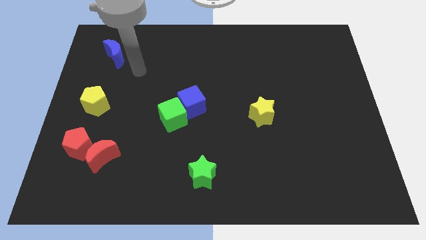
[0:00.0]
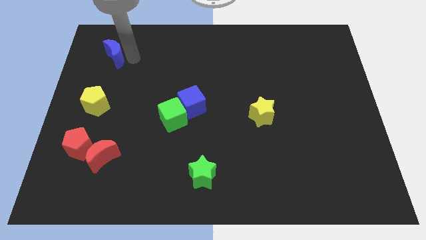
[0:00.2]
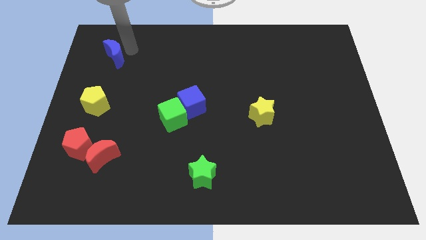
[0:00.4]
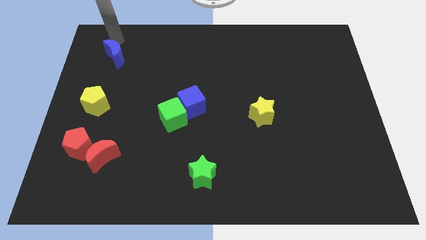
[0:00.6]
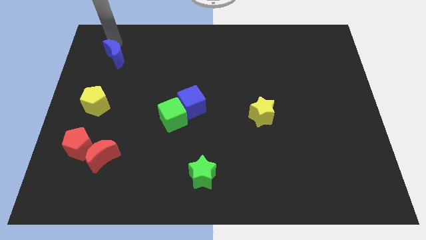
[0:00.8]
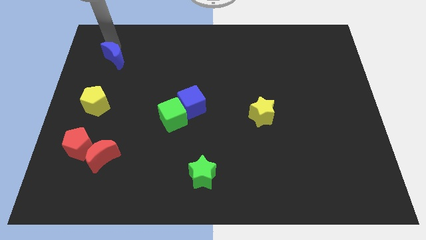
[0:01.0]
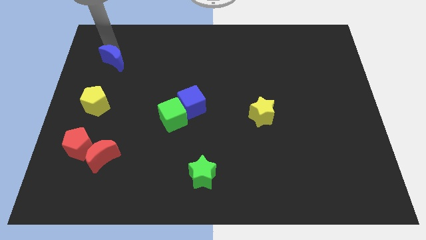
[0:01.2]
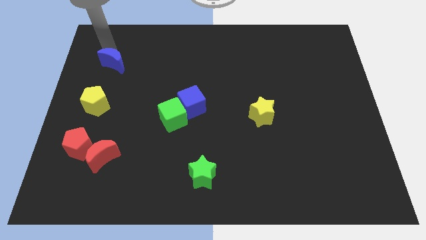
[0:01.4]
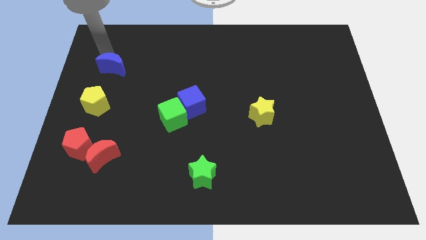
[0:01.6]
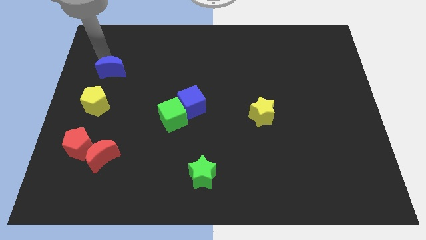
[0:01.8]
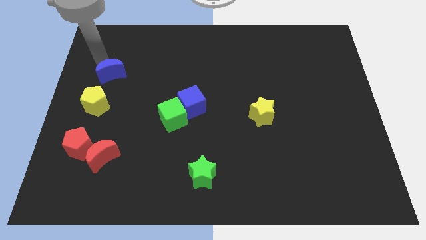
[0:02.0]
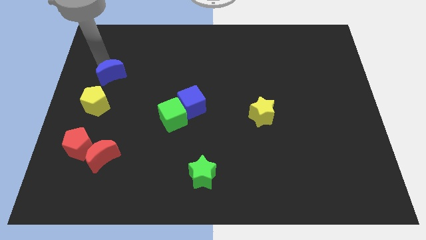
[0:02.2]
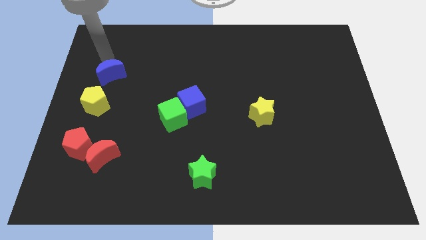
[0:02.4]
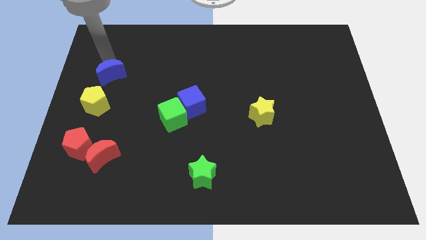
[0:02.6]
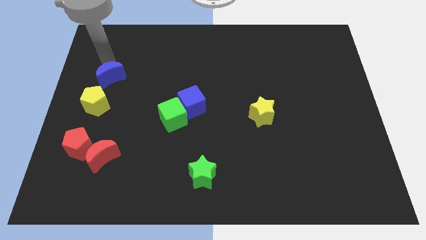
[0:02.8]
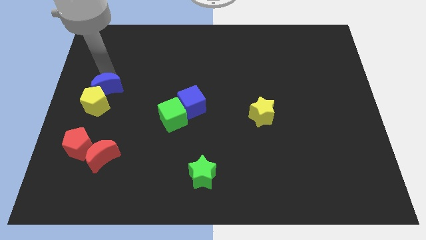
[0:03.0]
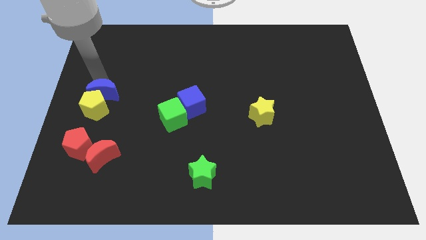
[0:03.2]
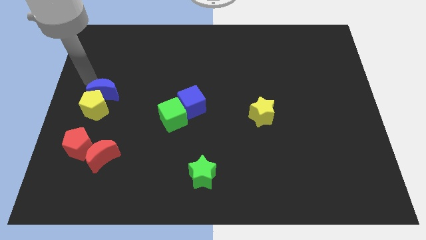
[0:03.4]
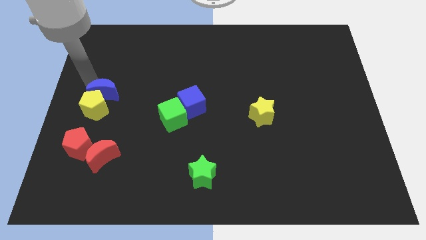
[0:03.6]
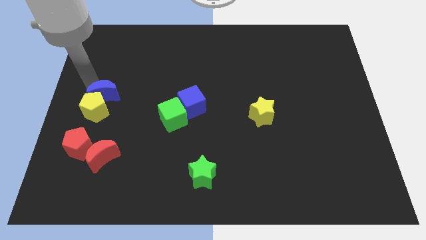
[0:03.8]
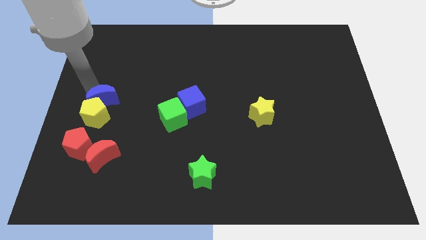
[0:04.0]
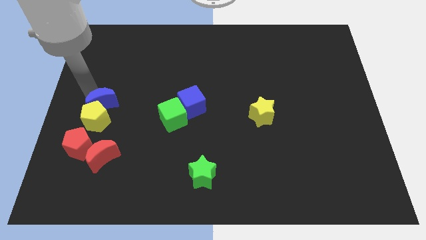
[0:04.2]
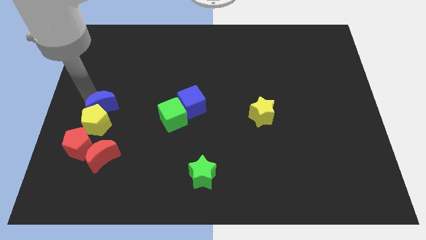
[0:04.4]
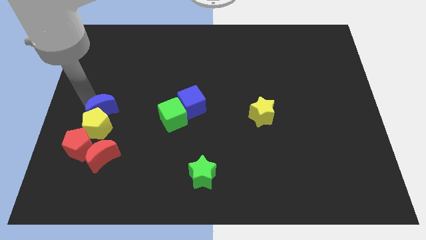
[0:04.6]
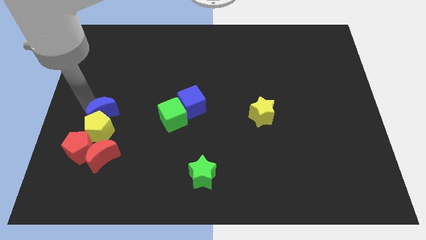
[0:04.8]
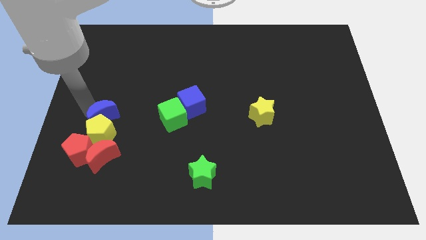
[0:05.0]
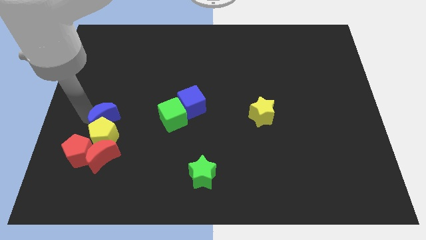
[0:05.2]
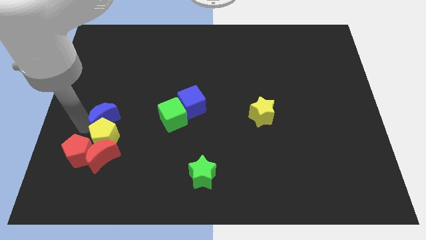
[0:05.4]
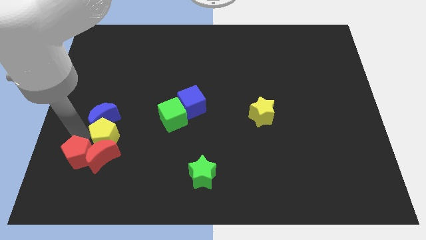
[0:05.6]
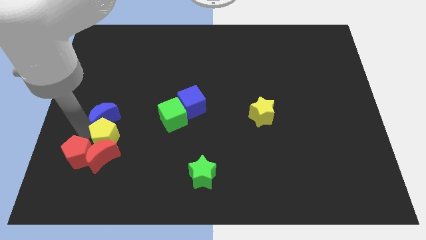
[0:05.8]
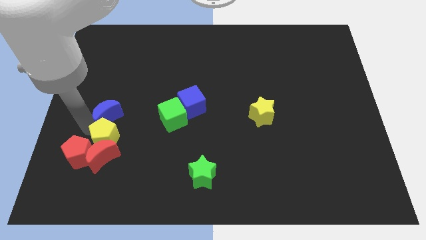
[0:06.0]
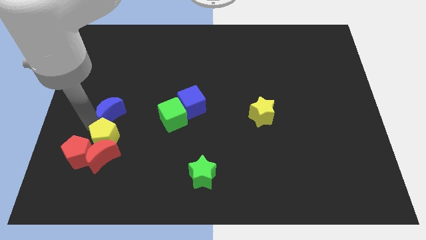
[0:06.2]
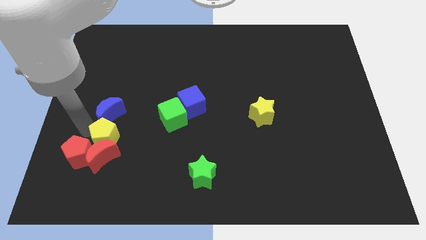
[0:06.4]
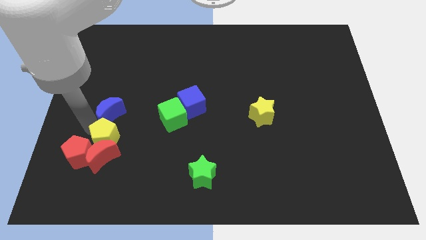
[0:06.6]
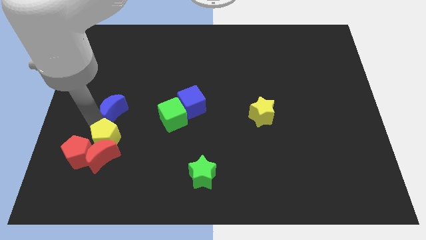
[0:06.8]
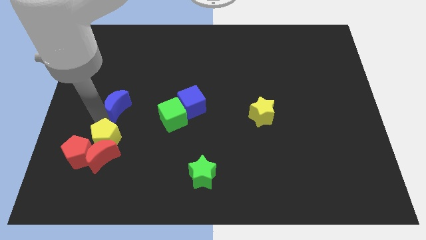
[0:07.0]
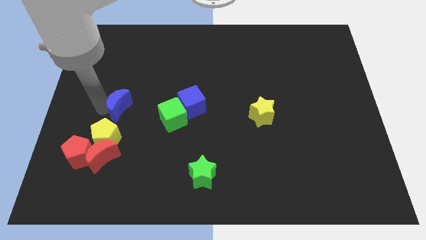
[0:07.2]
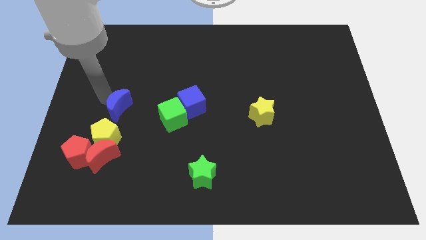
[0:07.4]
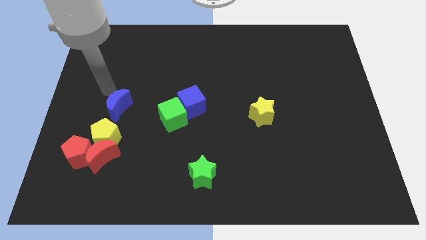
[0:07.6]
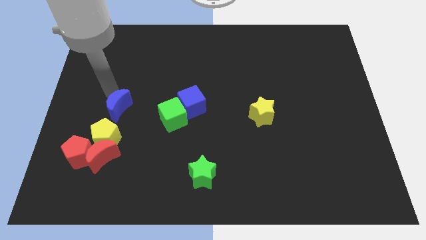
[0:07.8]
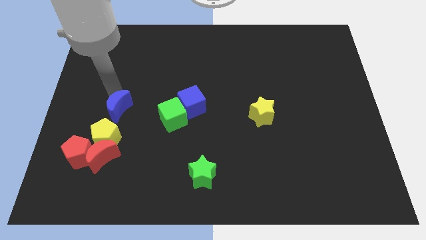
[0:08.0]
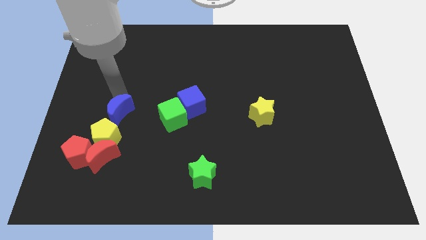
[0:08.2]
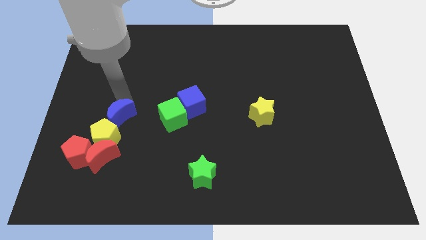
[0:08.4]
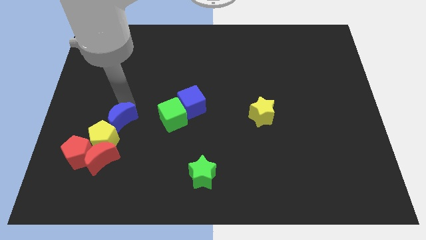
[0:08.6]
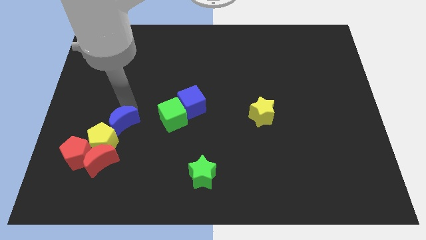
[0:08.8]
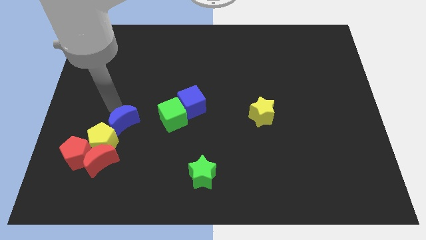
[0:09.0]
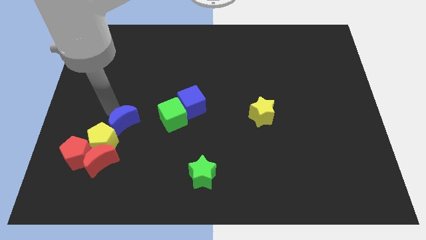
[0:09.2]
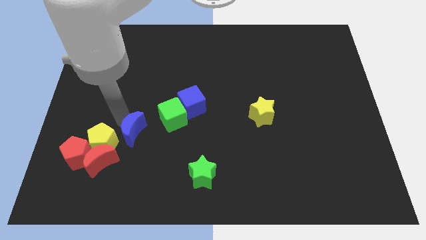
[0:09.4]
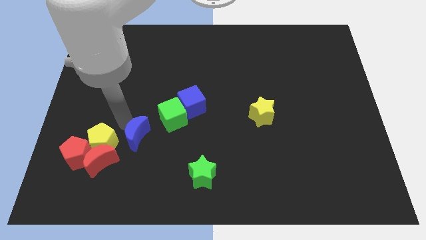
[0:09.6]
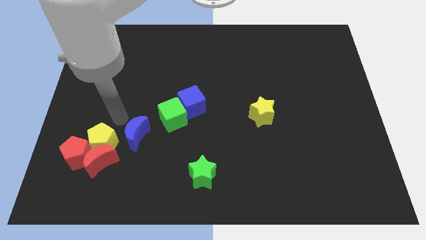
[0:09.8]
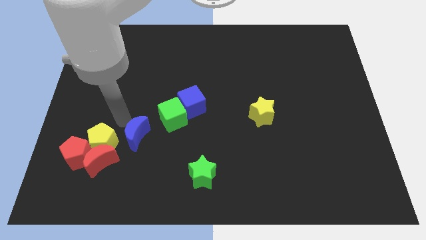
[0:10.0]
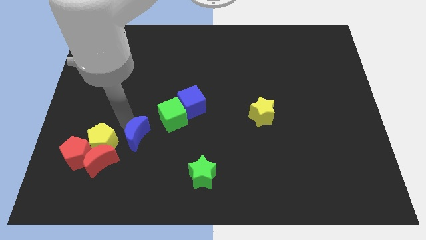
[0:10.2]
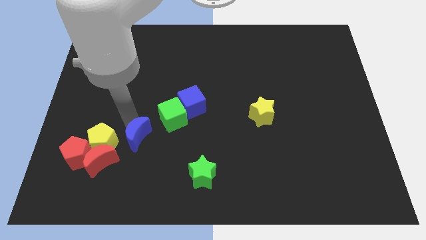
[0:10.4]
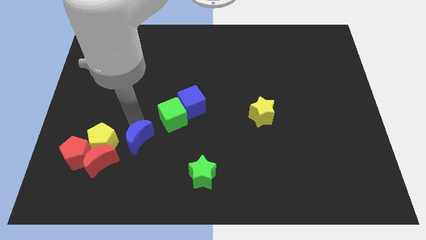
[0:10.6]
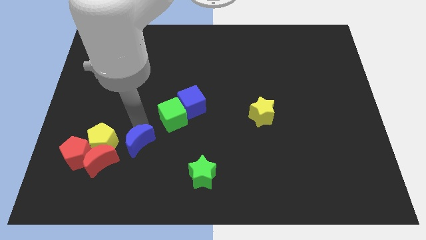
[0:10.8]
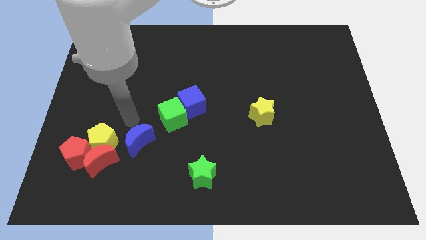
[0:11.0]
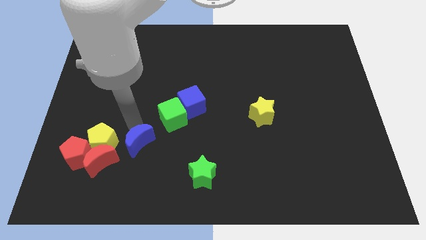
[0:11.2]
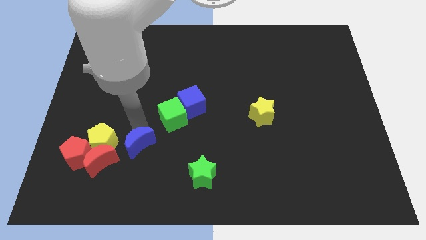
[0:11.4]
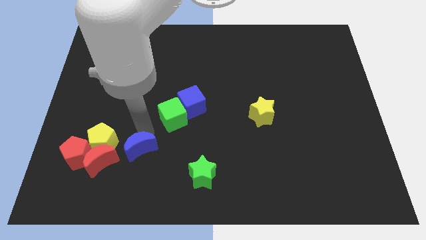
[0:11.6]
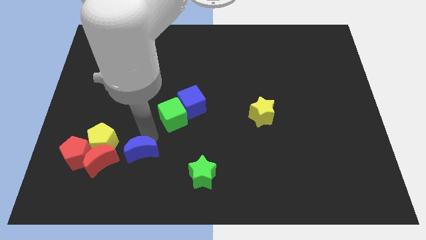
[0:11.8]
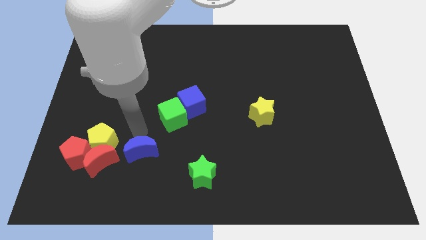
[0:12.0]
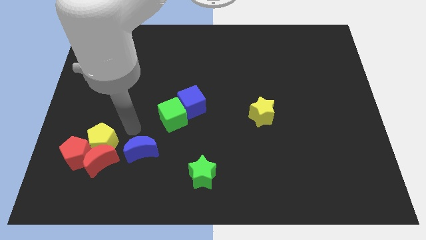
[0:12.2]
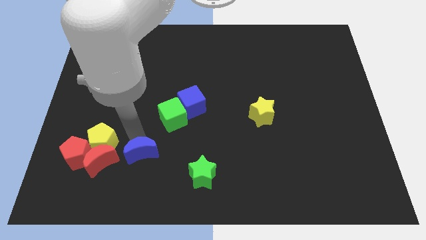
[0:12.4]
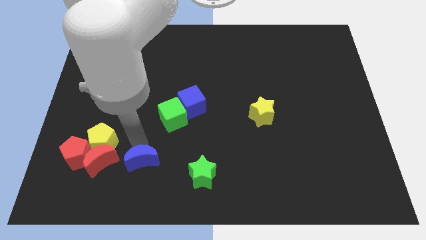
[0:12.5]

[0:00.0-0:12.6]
push the blue moon to the left of the green star
